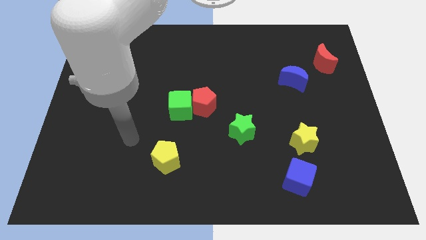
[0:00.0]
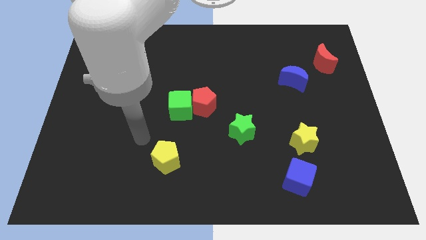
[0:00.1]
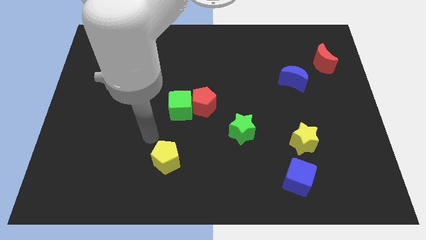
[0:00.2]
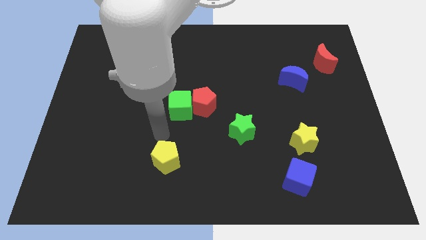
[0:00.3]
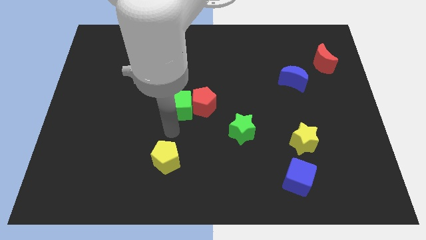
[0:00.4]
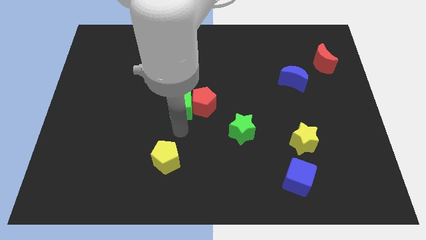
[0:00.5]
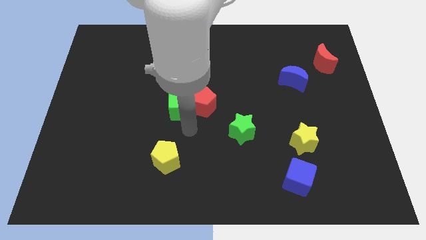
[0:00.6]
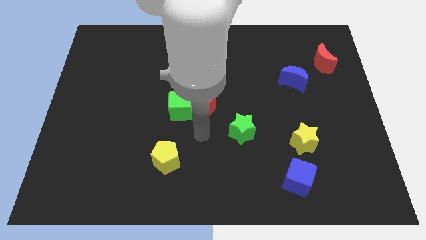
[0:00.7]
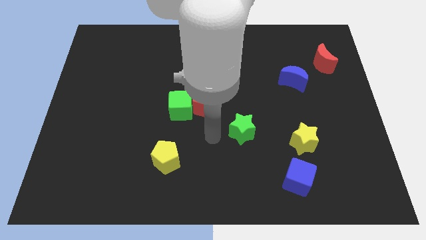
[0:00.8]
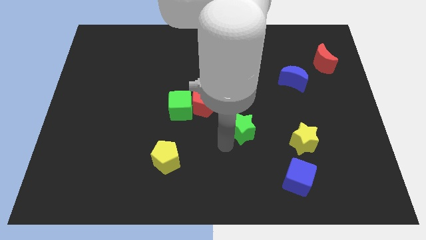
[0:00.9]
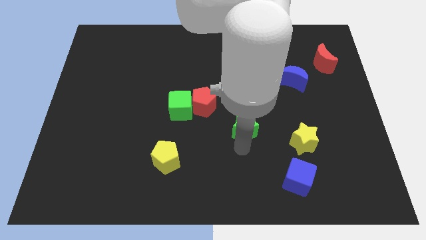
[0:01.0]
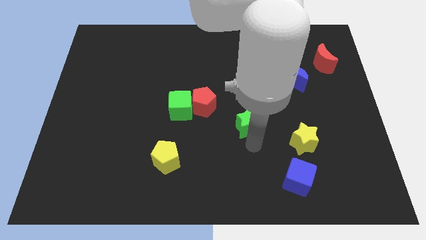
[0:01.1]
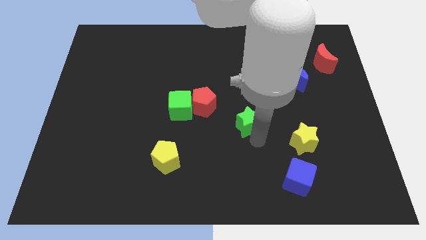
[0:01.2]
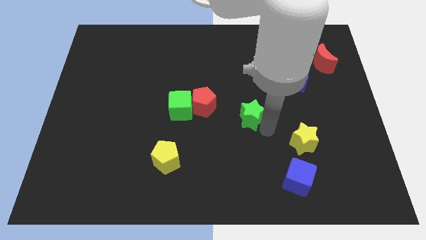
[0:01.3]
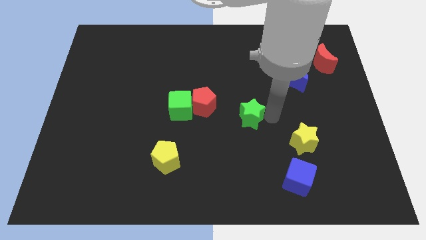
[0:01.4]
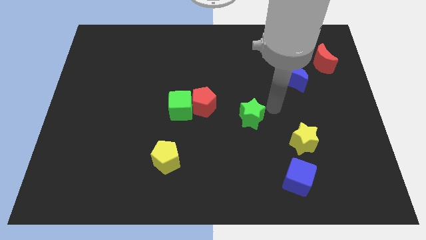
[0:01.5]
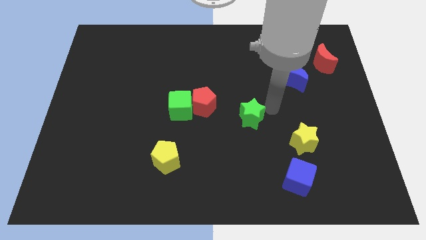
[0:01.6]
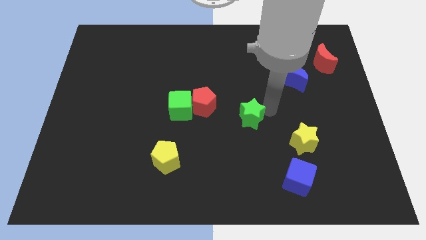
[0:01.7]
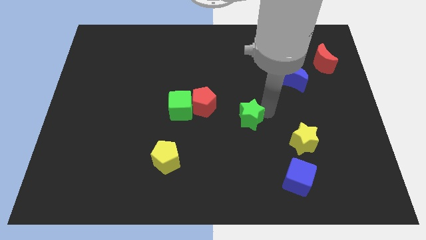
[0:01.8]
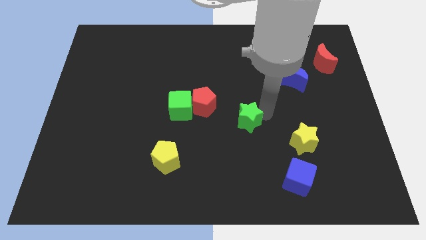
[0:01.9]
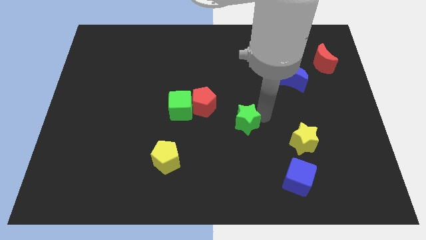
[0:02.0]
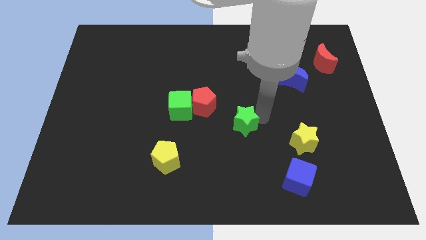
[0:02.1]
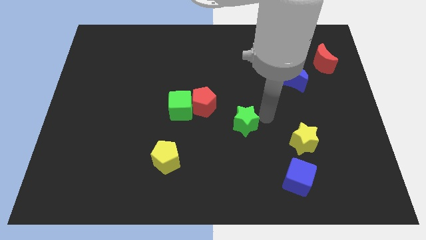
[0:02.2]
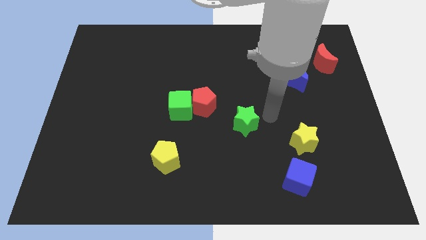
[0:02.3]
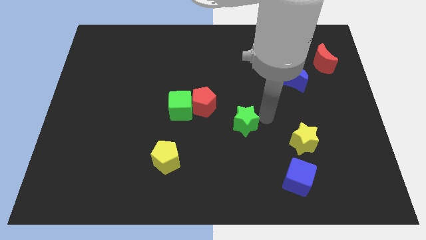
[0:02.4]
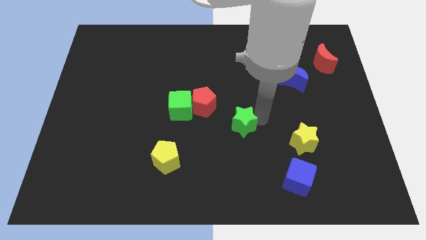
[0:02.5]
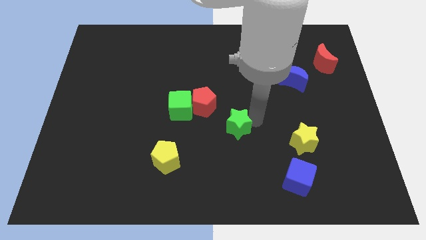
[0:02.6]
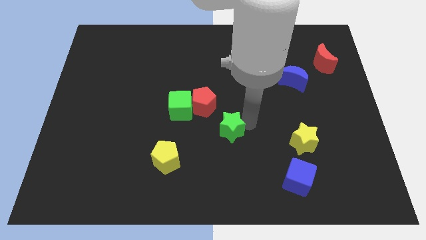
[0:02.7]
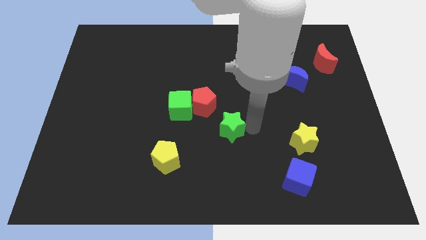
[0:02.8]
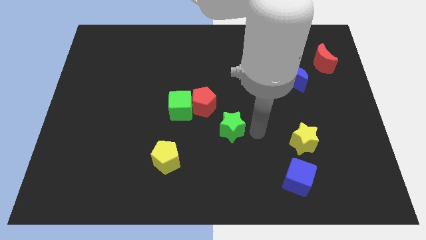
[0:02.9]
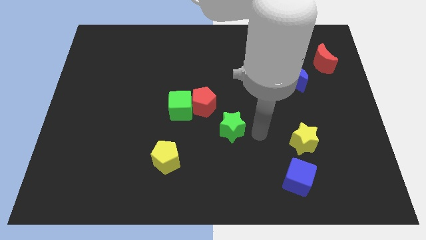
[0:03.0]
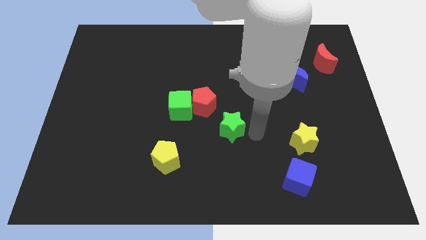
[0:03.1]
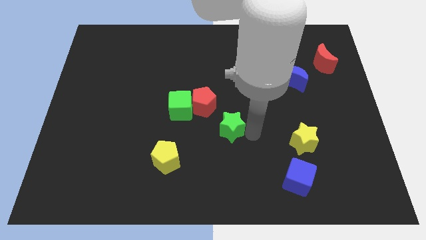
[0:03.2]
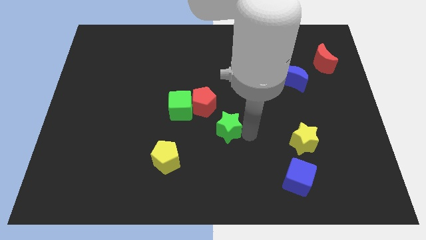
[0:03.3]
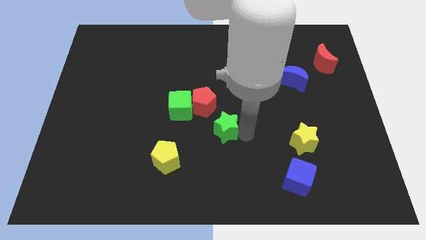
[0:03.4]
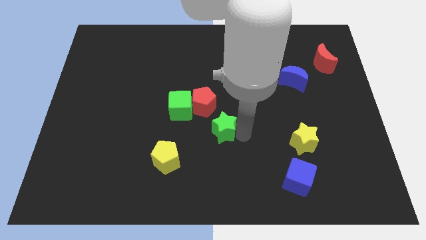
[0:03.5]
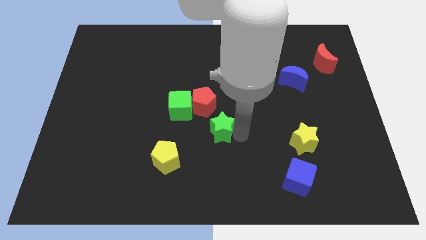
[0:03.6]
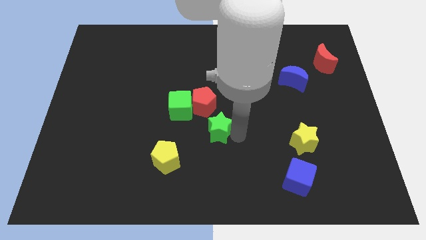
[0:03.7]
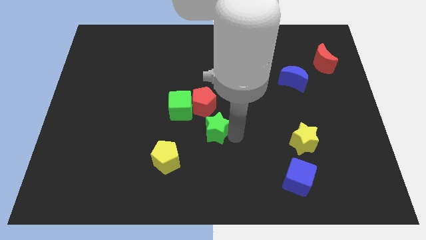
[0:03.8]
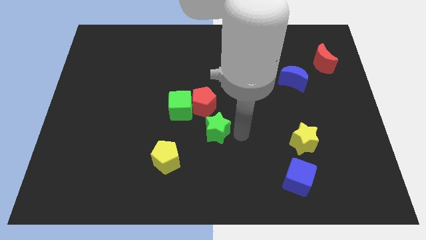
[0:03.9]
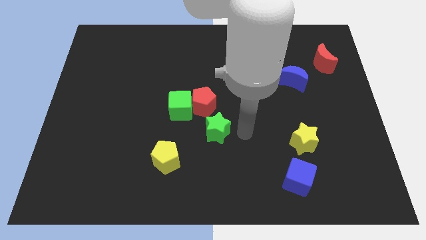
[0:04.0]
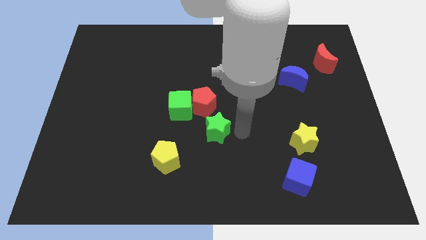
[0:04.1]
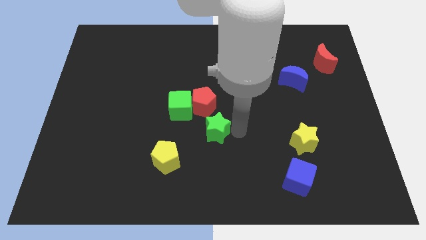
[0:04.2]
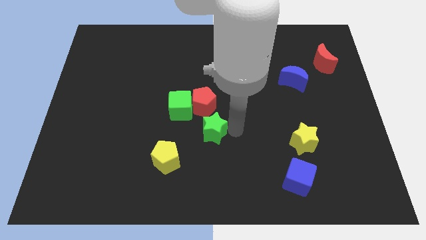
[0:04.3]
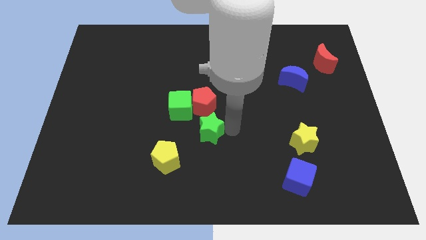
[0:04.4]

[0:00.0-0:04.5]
slightly push the green star to the left

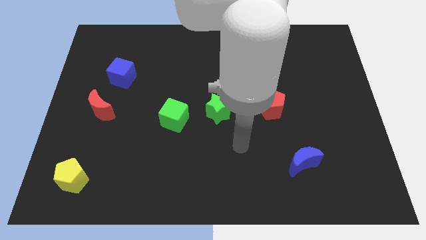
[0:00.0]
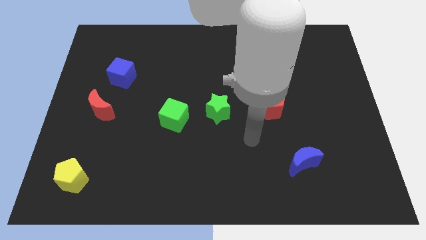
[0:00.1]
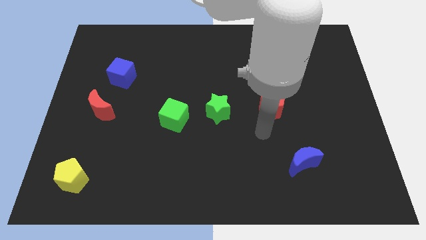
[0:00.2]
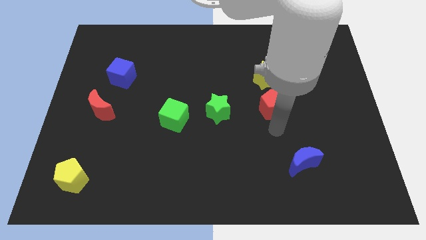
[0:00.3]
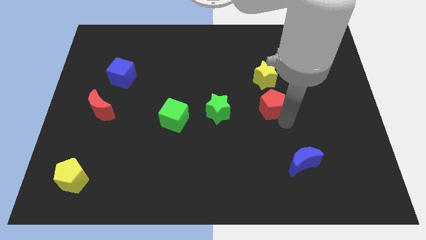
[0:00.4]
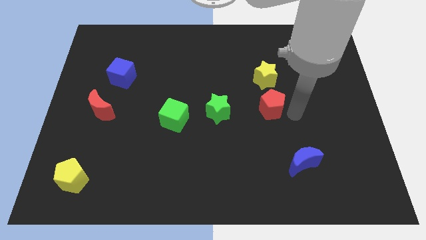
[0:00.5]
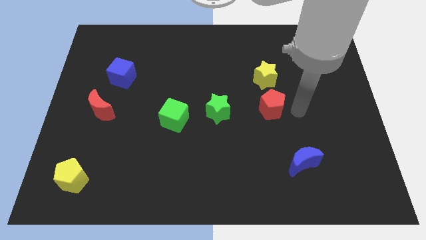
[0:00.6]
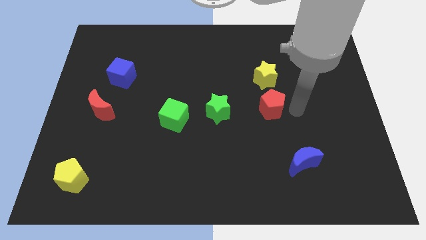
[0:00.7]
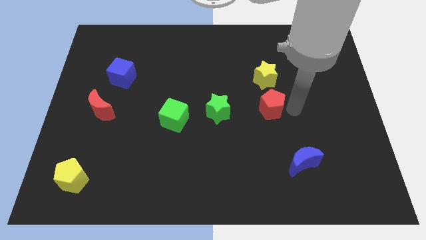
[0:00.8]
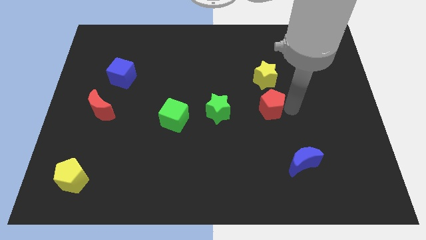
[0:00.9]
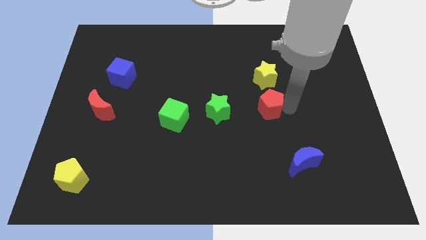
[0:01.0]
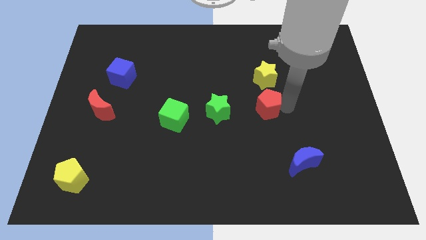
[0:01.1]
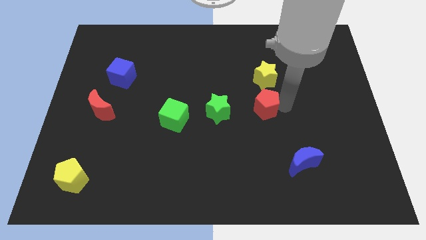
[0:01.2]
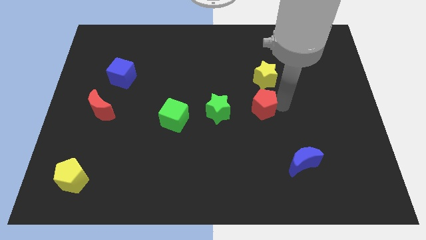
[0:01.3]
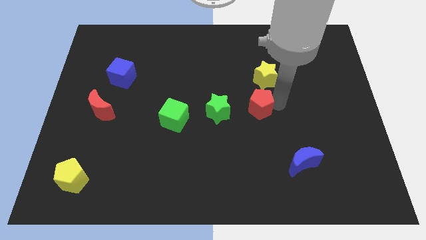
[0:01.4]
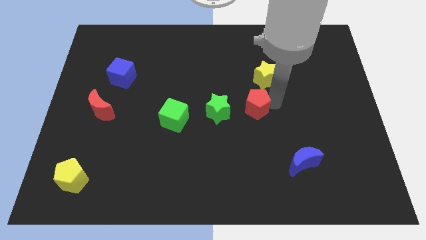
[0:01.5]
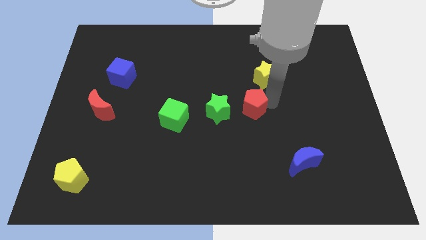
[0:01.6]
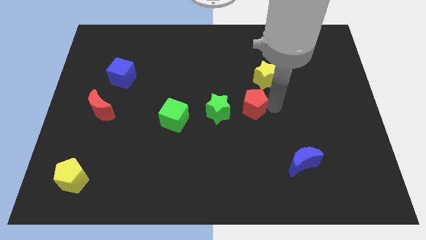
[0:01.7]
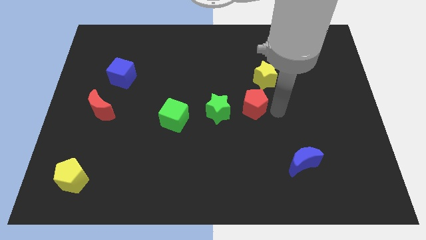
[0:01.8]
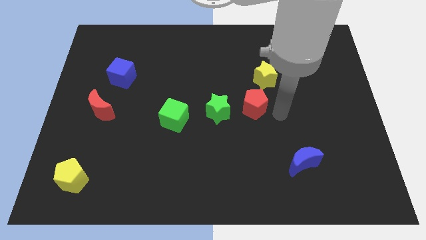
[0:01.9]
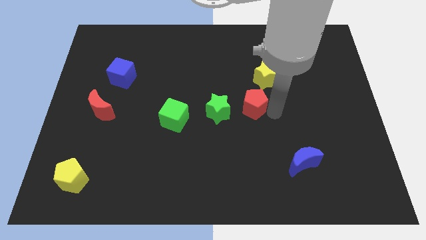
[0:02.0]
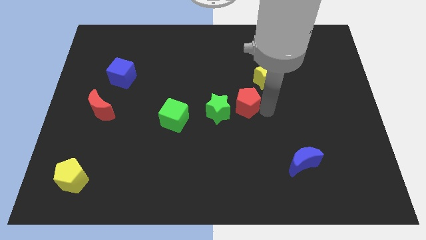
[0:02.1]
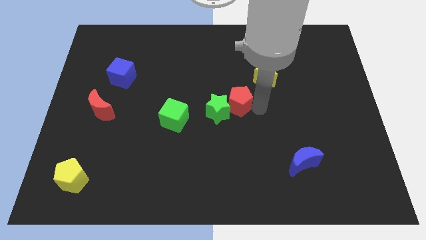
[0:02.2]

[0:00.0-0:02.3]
slightly push the red pentagon left

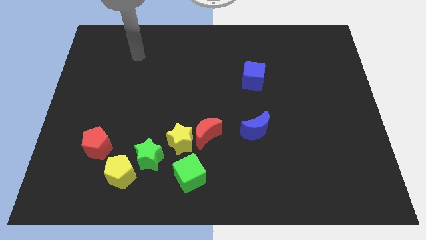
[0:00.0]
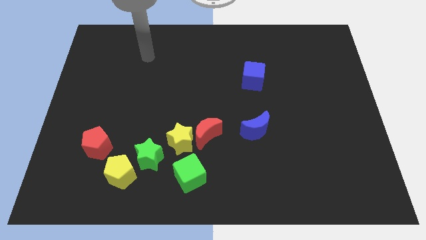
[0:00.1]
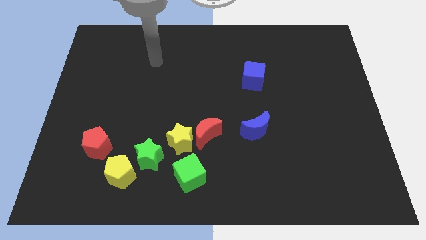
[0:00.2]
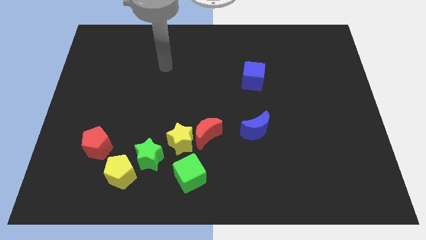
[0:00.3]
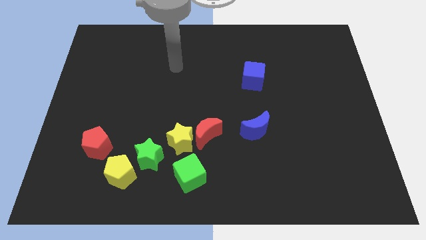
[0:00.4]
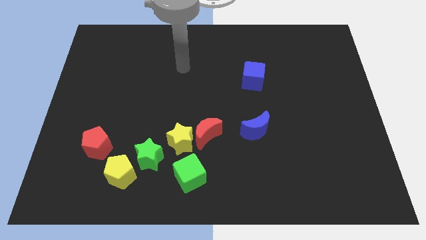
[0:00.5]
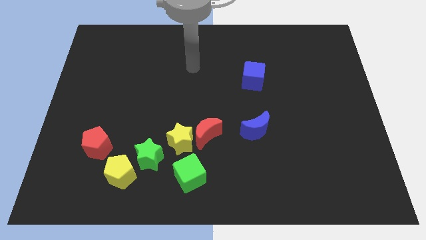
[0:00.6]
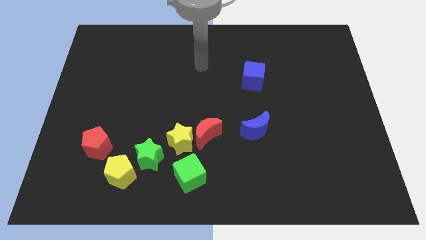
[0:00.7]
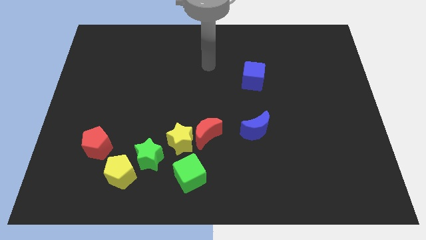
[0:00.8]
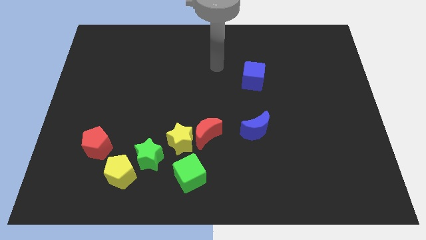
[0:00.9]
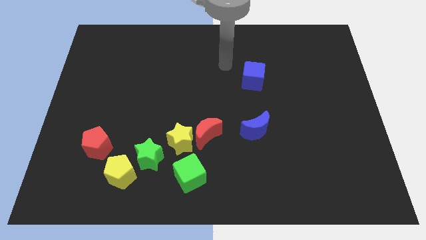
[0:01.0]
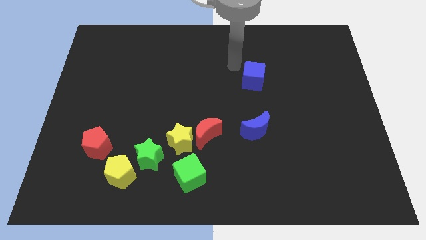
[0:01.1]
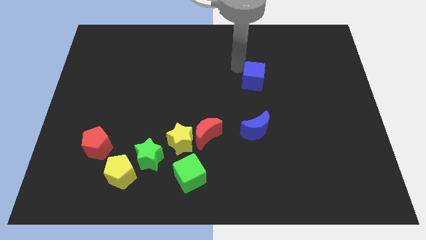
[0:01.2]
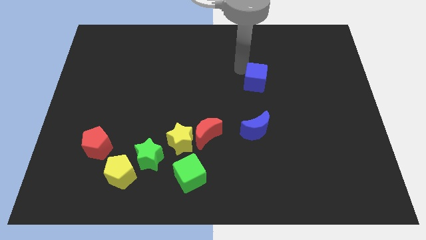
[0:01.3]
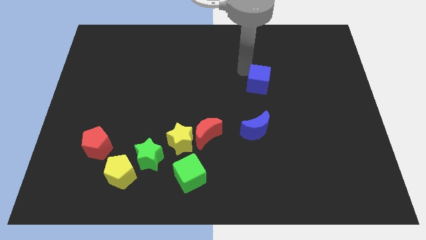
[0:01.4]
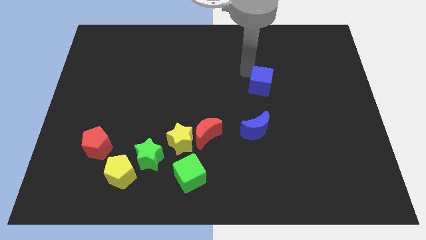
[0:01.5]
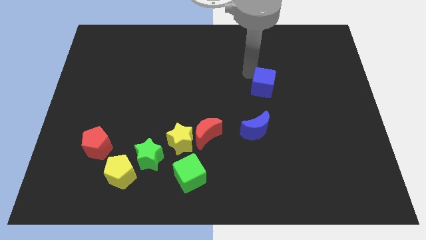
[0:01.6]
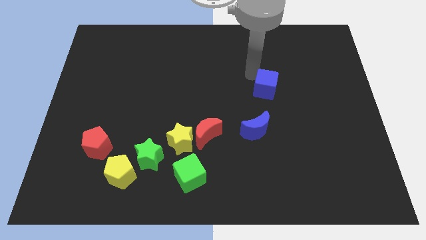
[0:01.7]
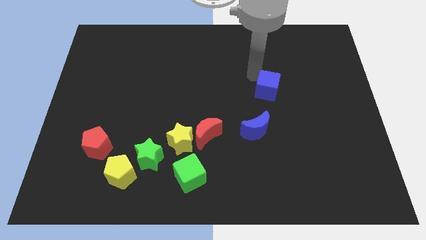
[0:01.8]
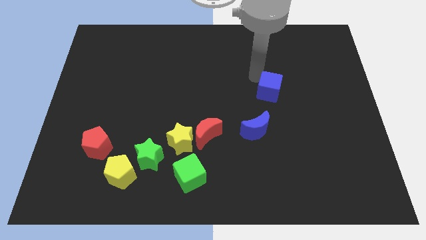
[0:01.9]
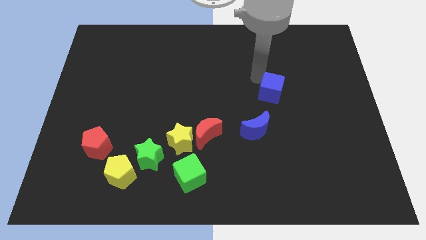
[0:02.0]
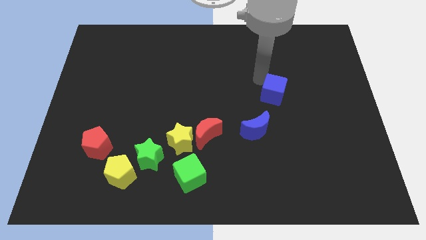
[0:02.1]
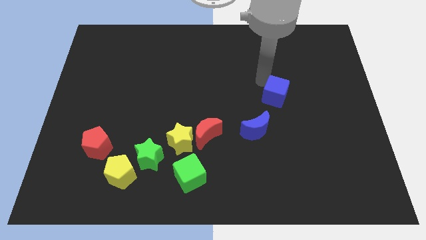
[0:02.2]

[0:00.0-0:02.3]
slide the blue cube down and then to the right a bit
